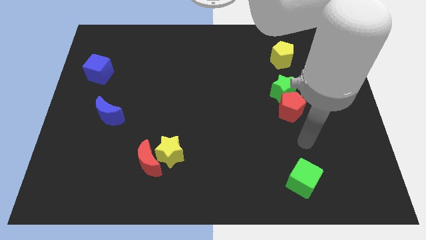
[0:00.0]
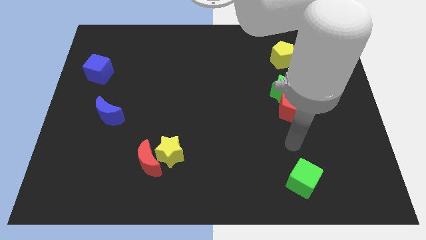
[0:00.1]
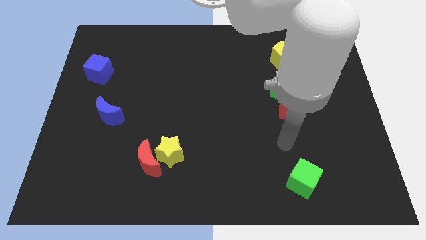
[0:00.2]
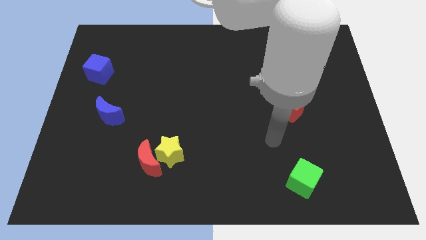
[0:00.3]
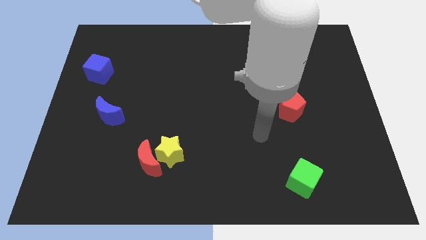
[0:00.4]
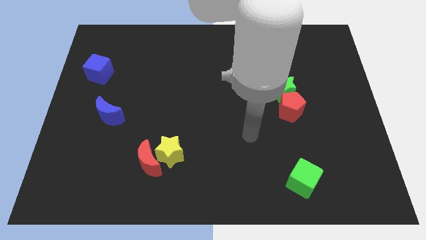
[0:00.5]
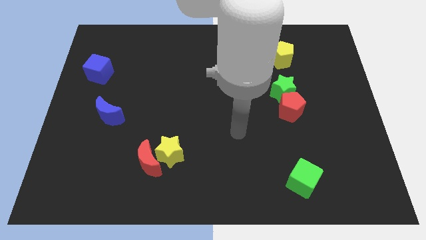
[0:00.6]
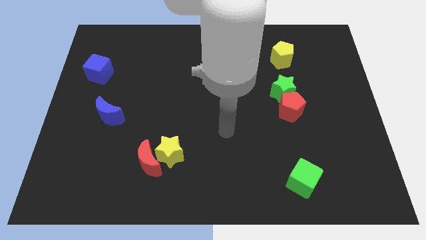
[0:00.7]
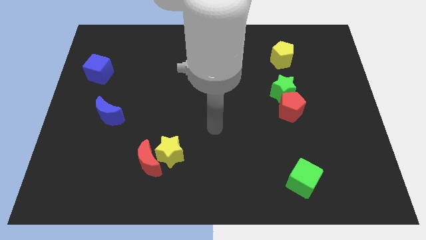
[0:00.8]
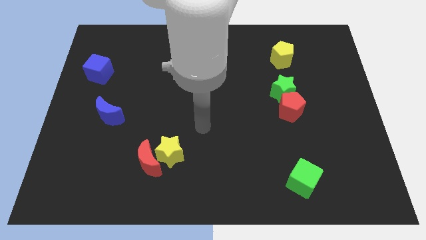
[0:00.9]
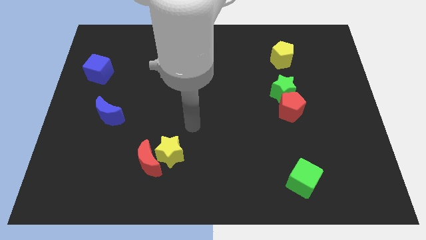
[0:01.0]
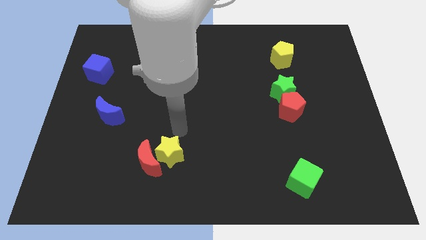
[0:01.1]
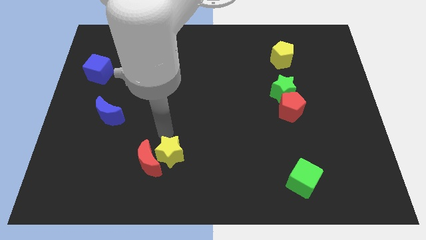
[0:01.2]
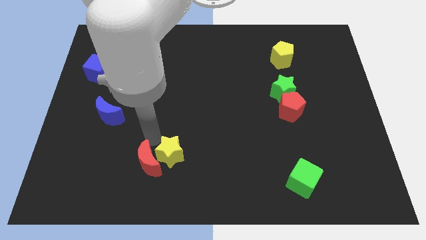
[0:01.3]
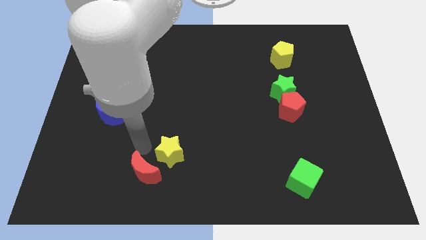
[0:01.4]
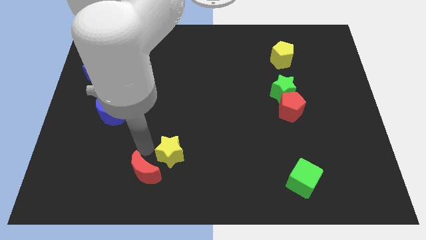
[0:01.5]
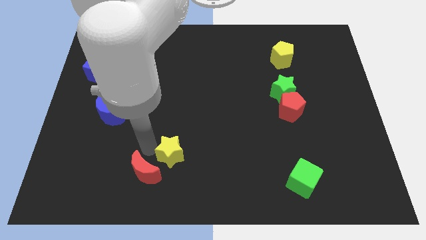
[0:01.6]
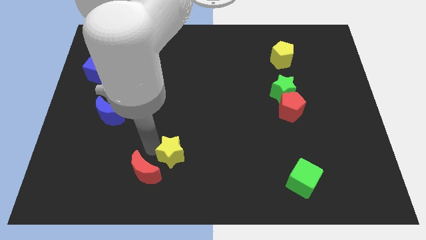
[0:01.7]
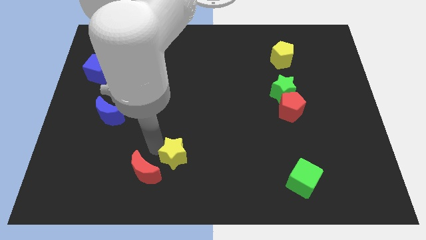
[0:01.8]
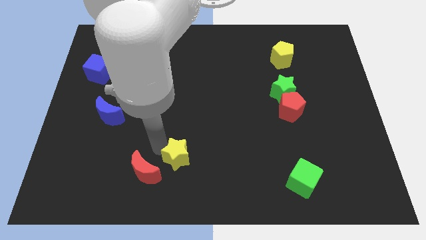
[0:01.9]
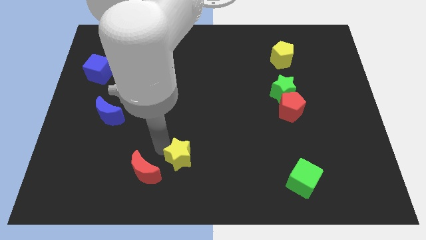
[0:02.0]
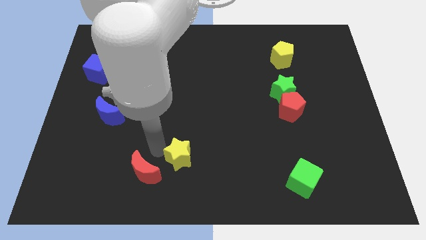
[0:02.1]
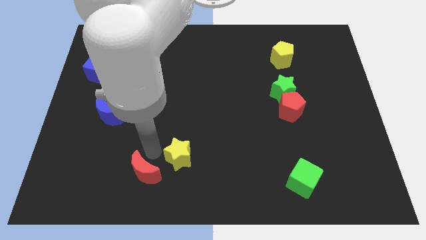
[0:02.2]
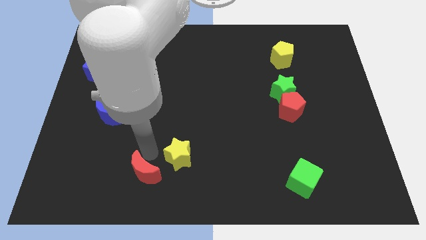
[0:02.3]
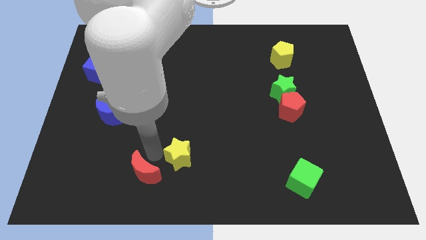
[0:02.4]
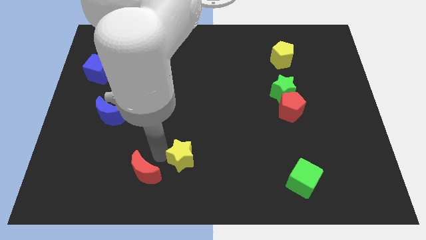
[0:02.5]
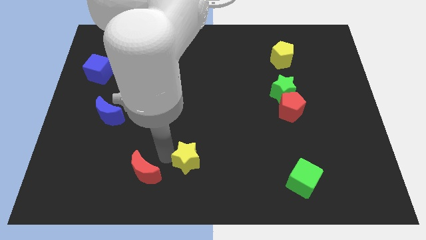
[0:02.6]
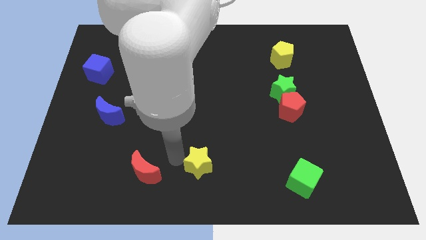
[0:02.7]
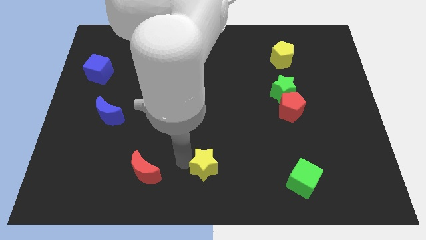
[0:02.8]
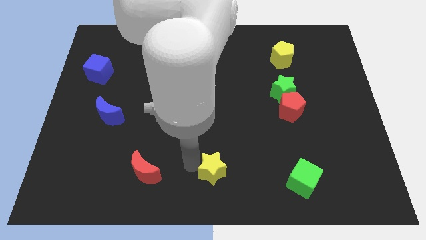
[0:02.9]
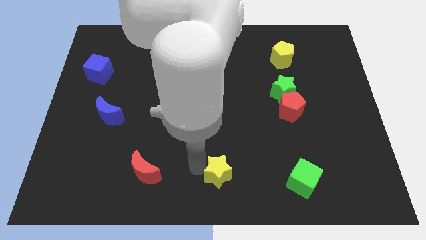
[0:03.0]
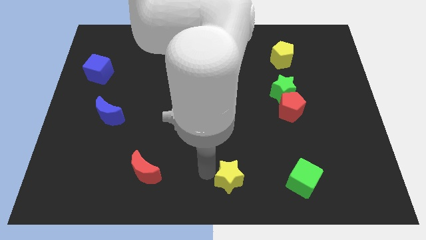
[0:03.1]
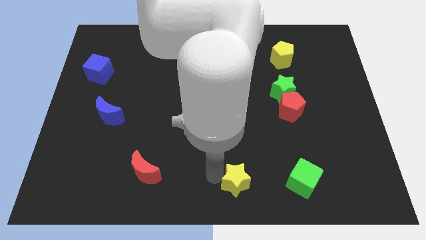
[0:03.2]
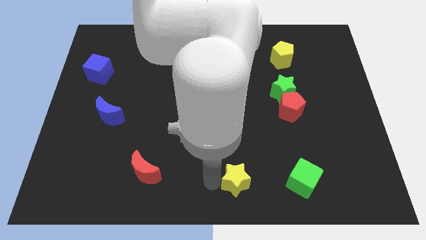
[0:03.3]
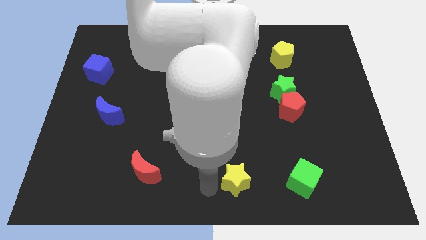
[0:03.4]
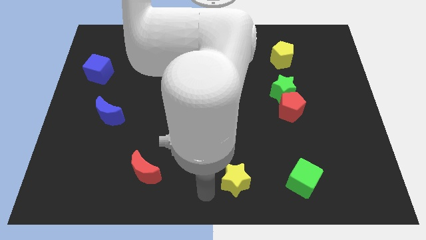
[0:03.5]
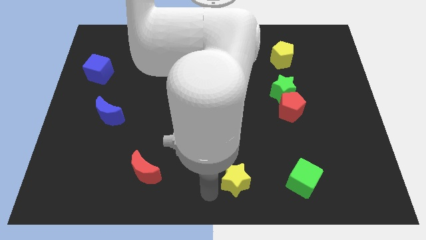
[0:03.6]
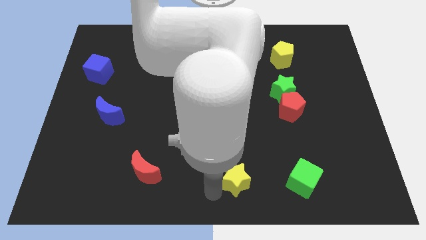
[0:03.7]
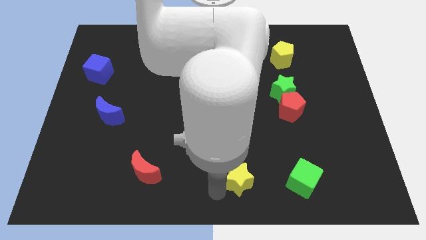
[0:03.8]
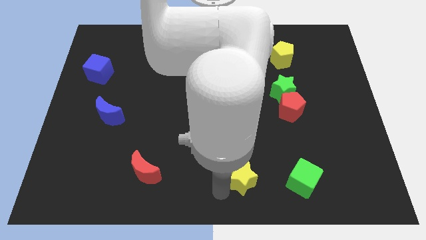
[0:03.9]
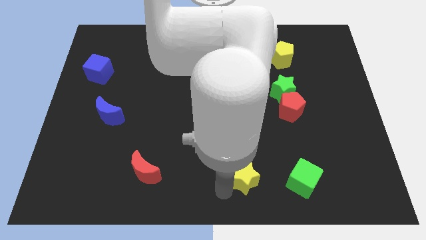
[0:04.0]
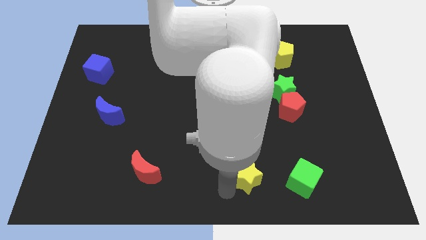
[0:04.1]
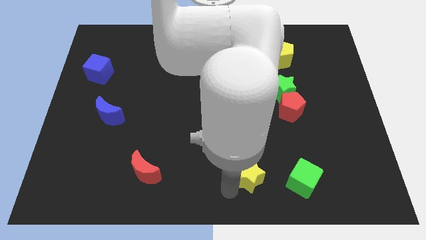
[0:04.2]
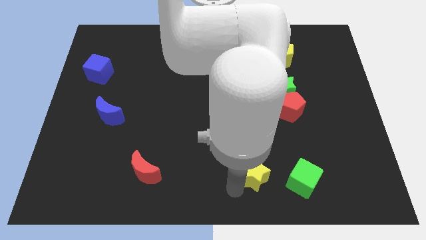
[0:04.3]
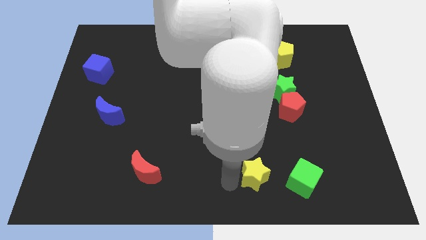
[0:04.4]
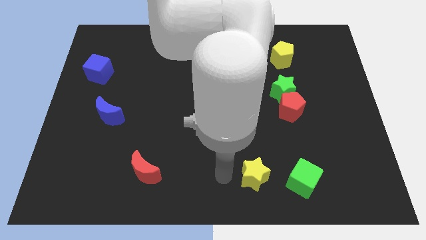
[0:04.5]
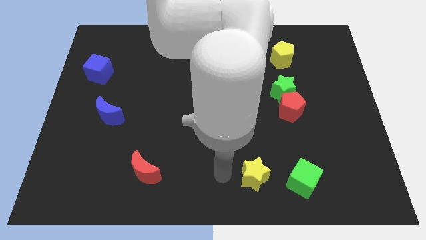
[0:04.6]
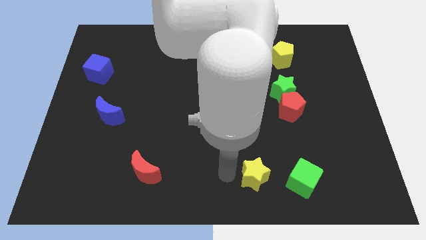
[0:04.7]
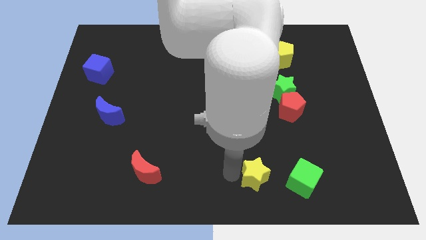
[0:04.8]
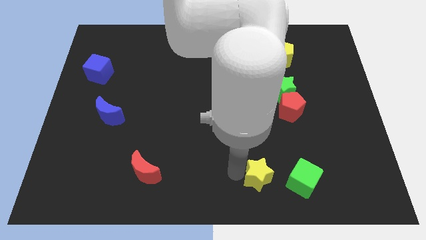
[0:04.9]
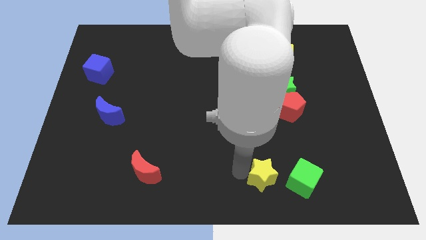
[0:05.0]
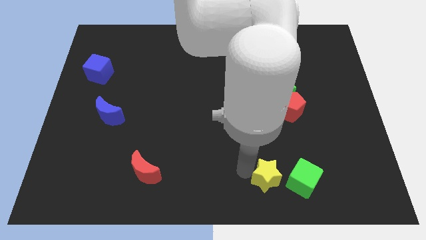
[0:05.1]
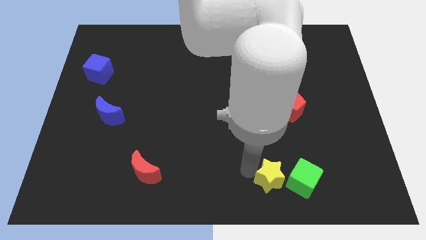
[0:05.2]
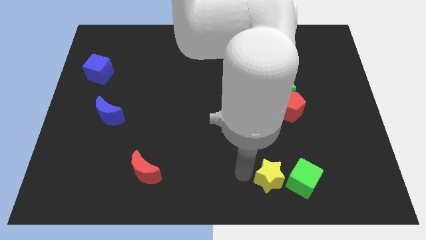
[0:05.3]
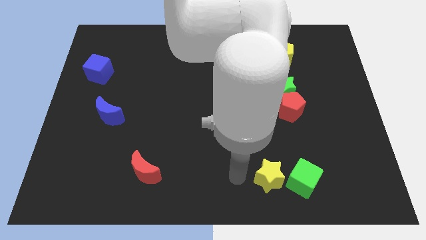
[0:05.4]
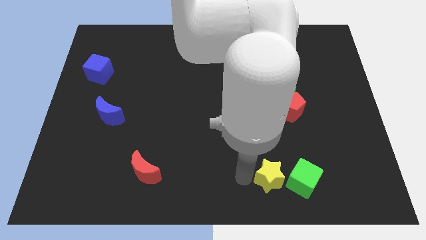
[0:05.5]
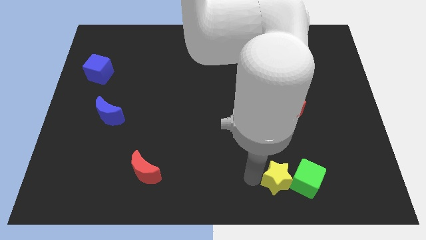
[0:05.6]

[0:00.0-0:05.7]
put the yellow star close to the green cube

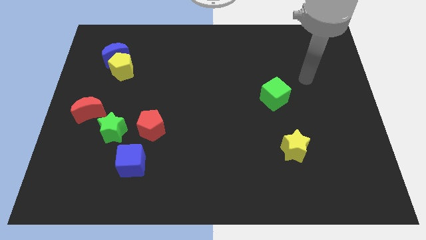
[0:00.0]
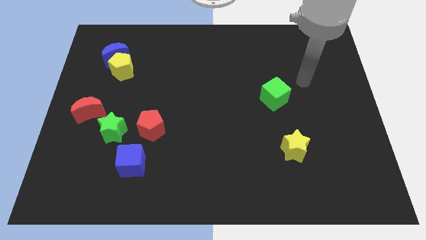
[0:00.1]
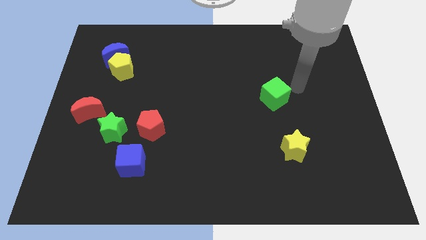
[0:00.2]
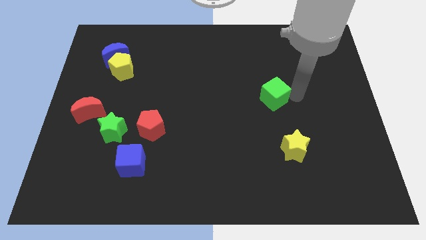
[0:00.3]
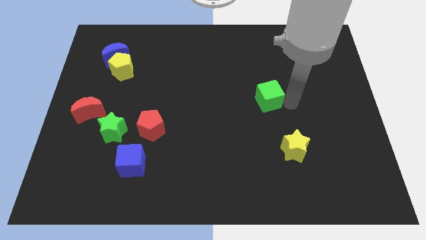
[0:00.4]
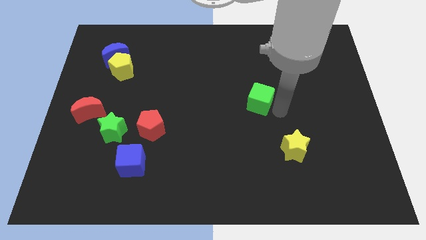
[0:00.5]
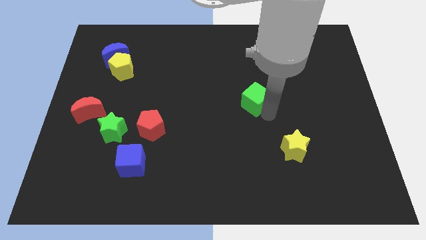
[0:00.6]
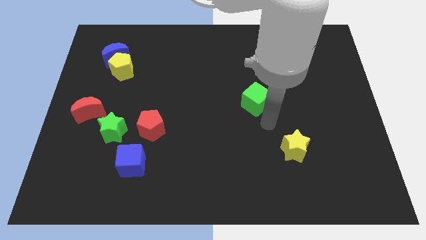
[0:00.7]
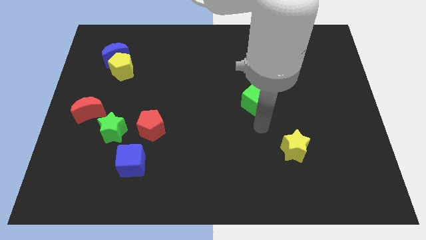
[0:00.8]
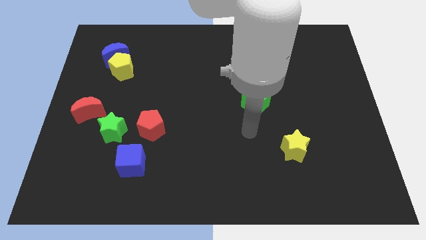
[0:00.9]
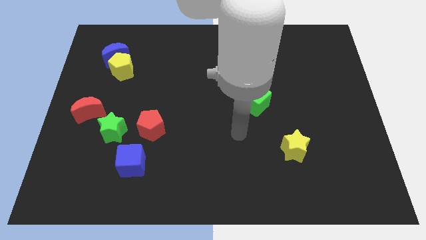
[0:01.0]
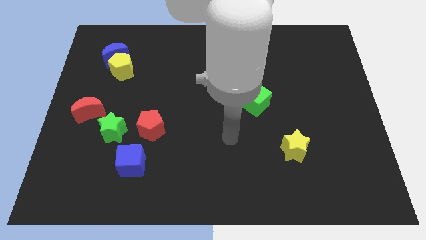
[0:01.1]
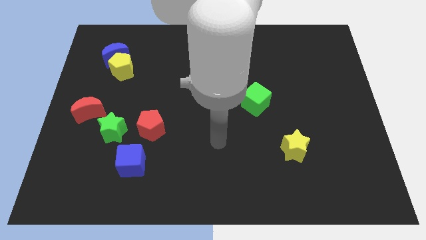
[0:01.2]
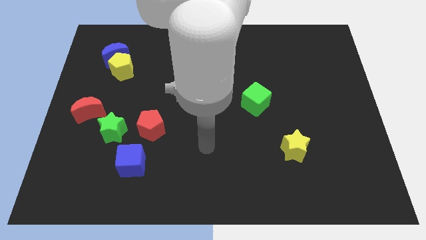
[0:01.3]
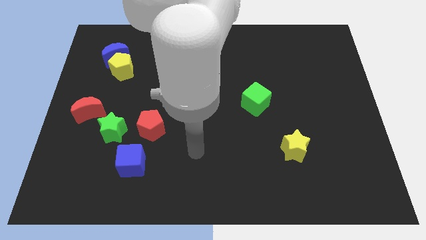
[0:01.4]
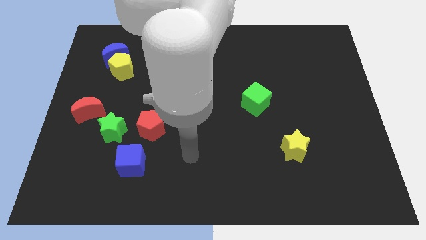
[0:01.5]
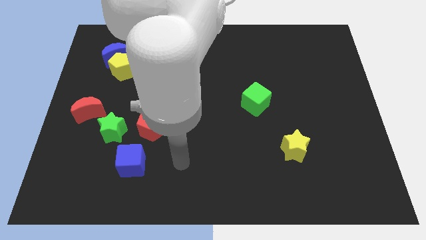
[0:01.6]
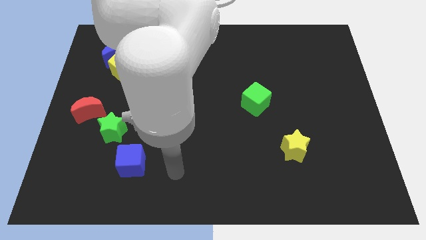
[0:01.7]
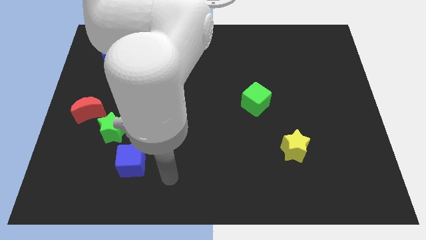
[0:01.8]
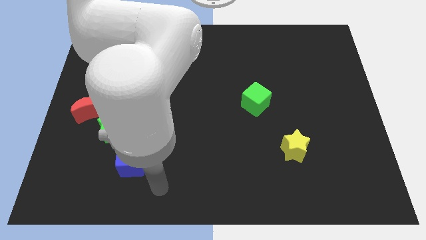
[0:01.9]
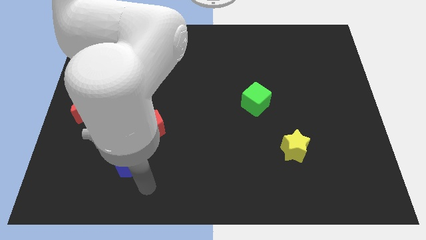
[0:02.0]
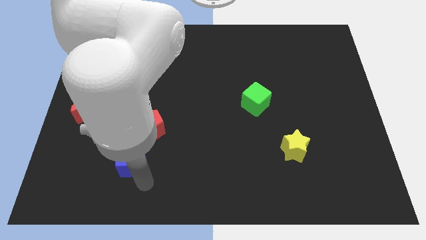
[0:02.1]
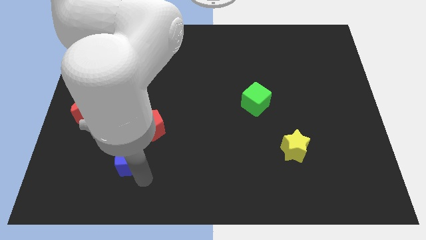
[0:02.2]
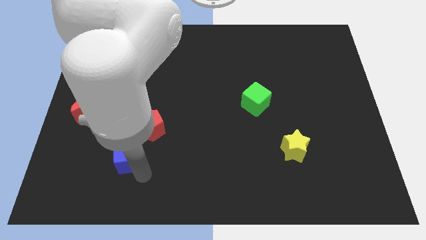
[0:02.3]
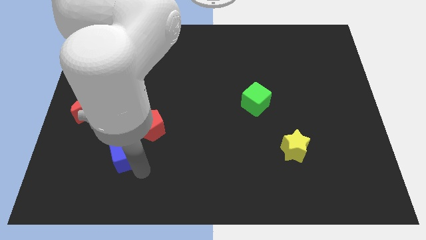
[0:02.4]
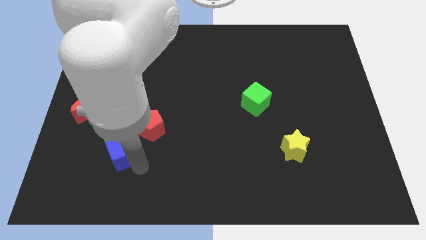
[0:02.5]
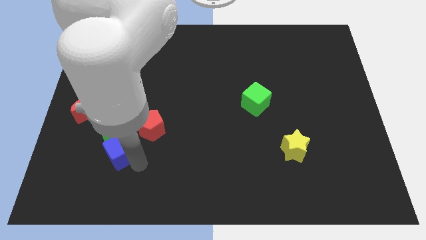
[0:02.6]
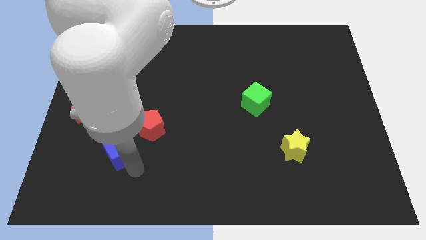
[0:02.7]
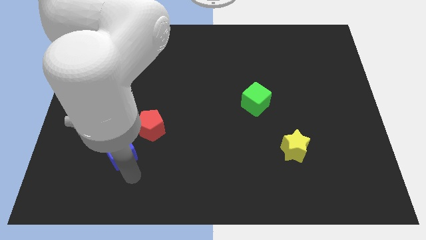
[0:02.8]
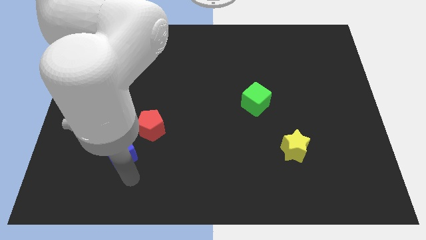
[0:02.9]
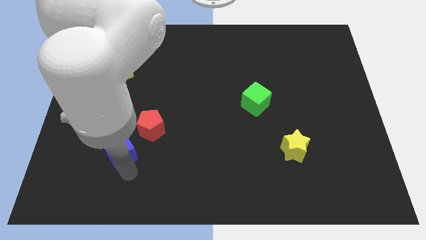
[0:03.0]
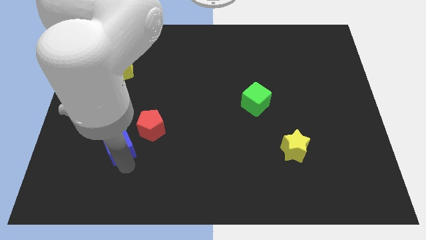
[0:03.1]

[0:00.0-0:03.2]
slide the blue cube next to the green star
